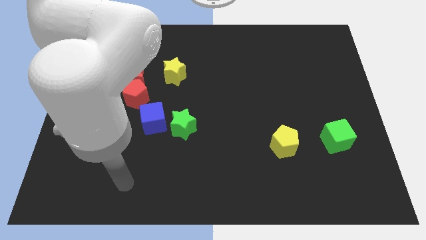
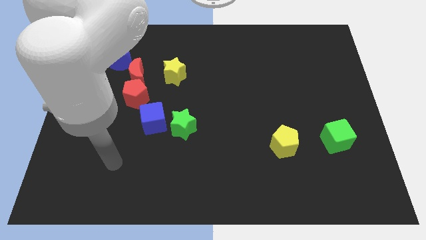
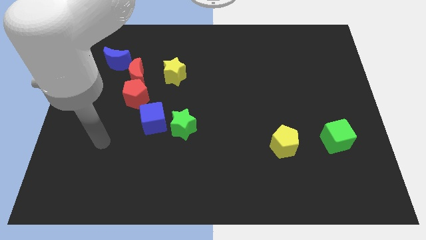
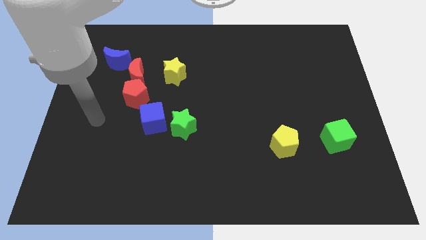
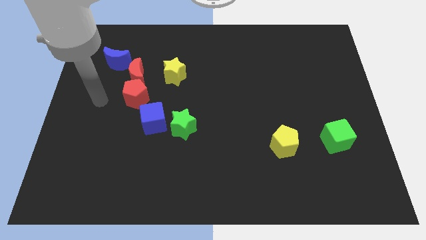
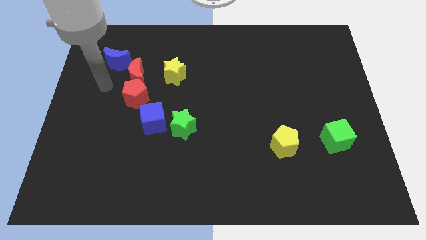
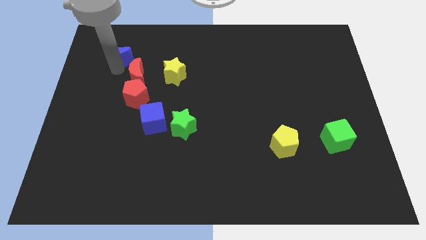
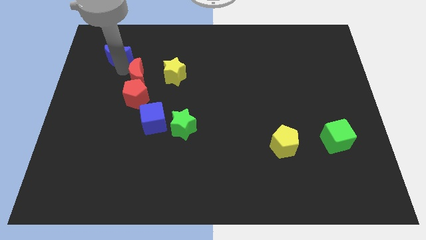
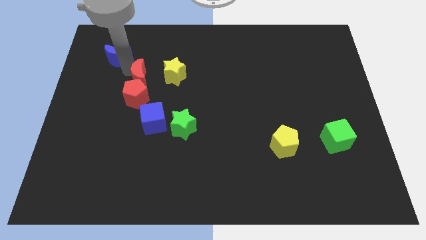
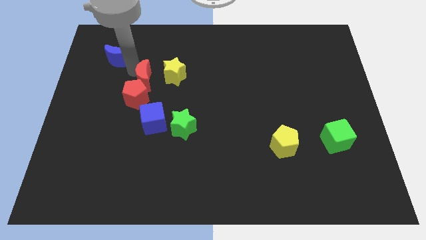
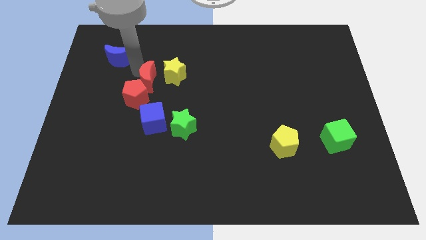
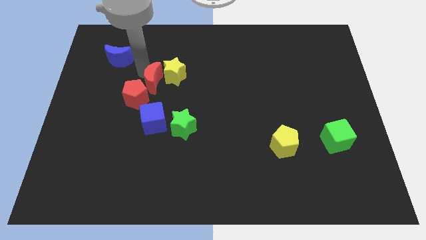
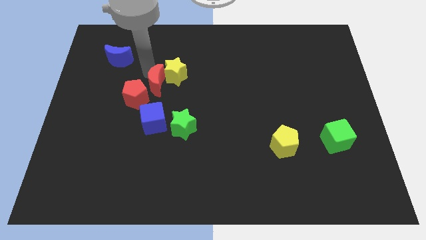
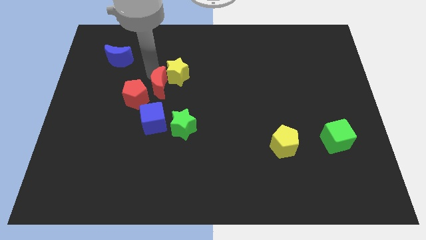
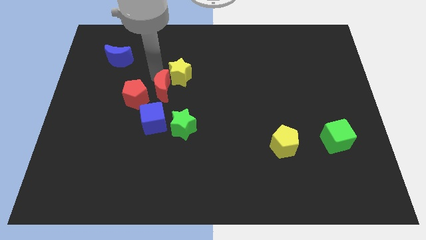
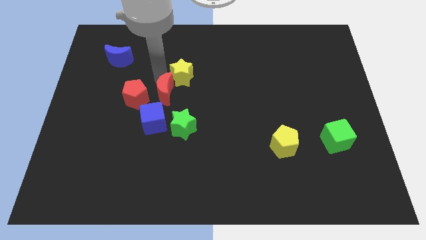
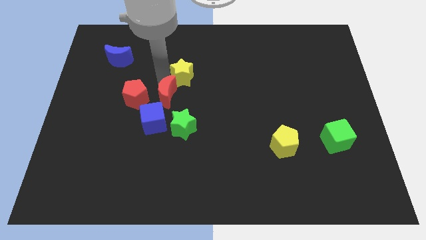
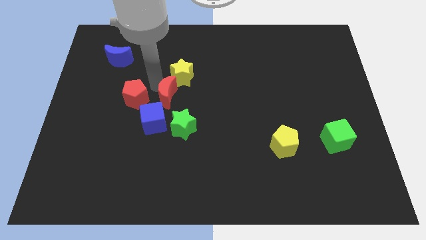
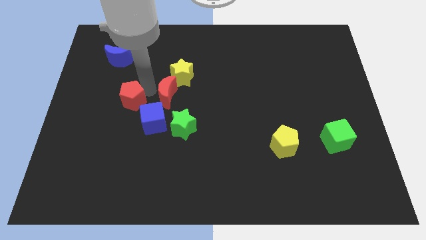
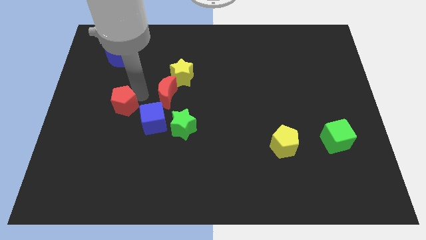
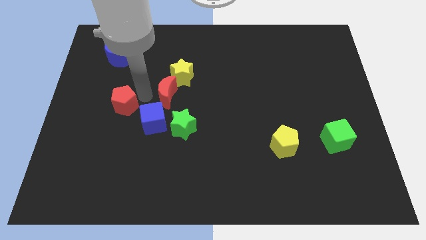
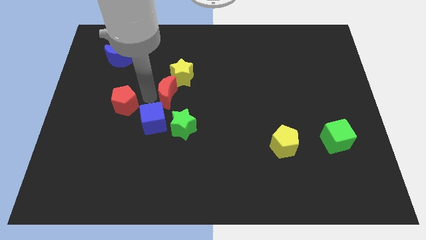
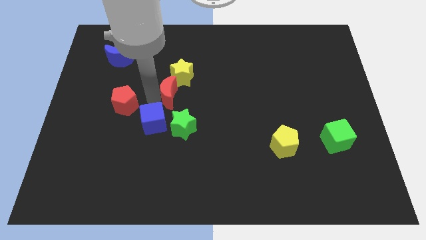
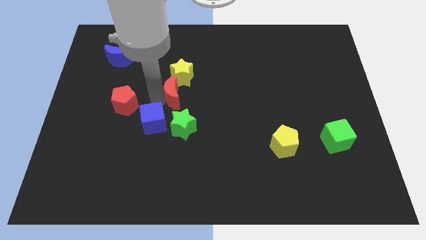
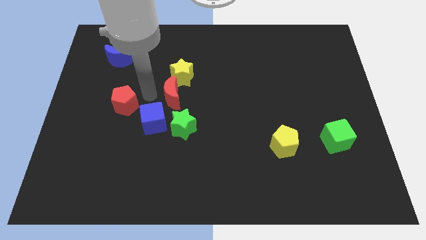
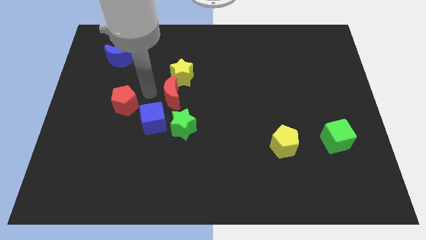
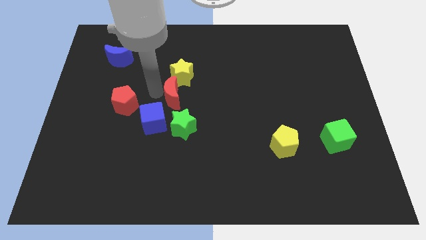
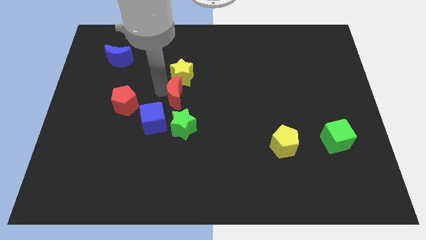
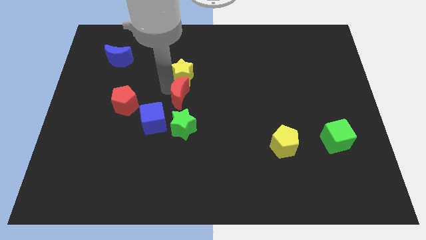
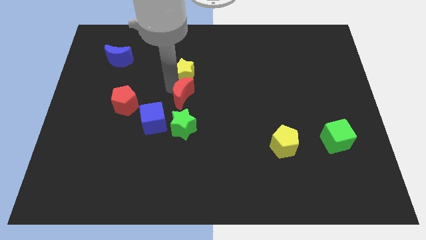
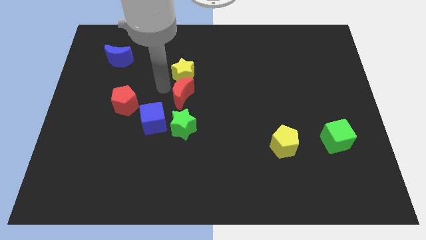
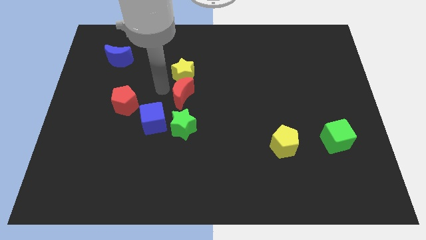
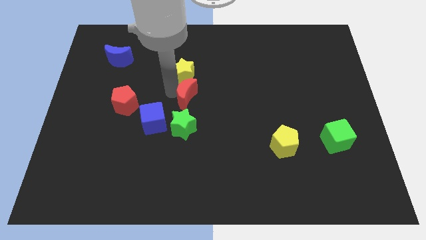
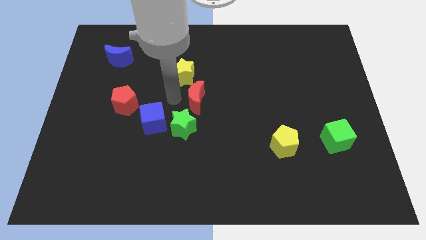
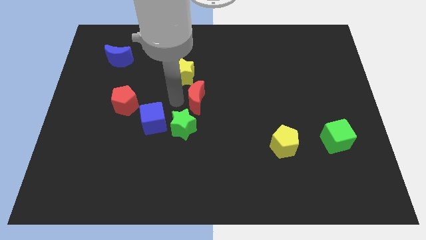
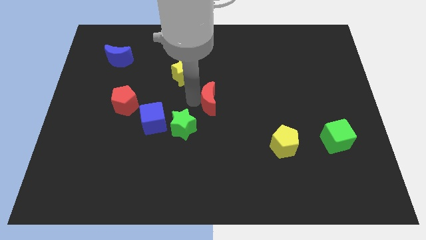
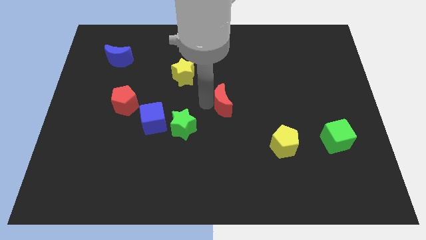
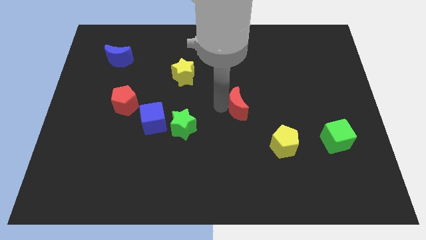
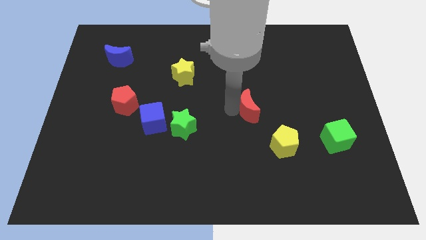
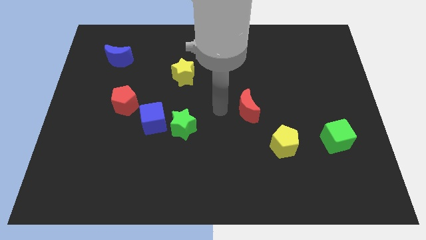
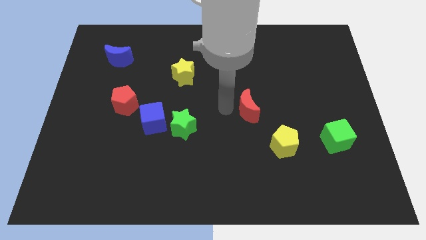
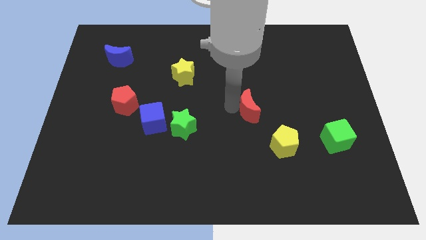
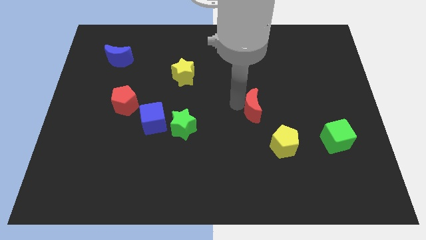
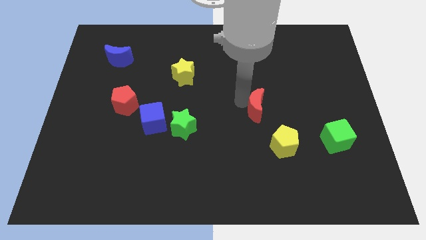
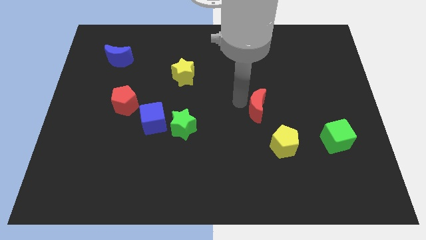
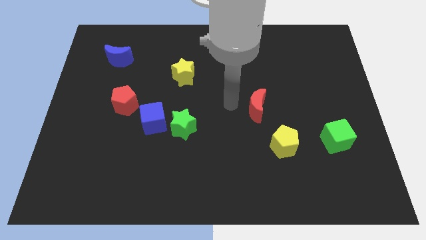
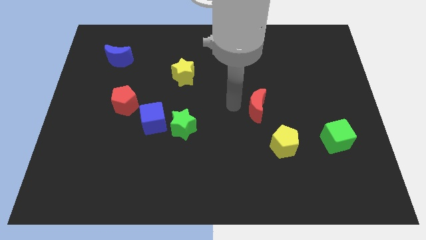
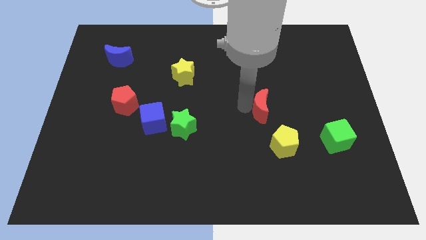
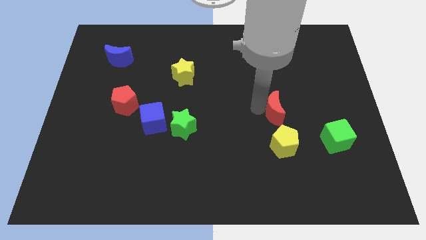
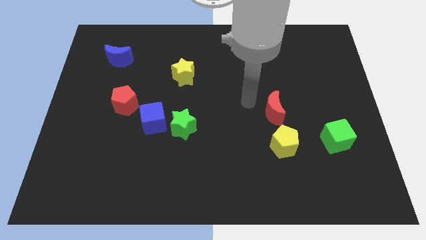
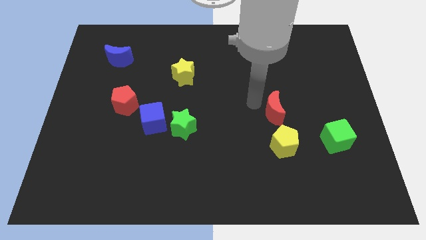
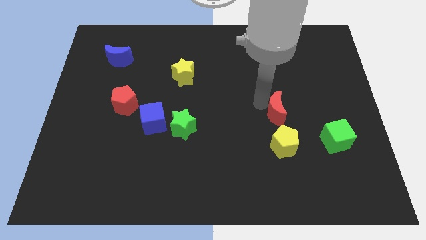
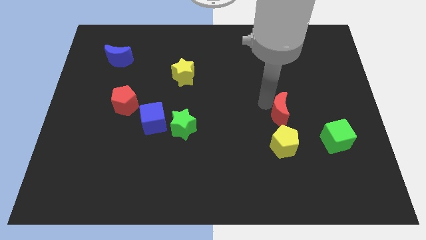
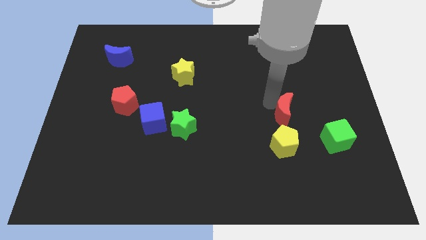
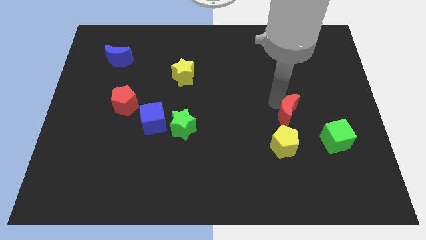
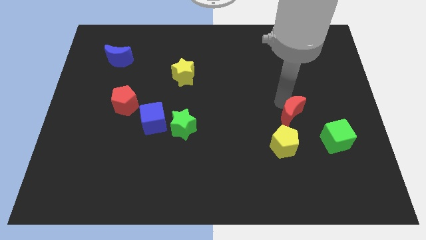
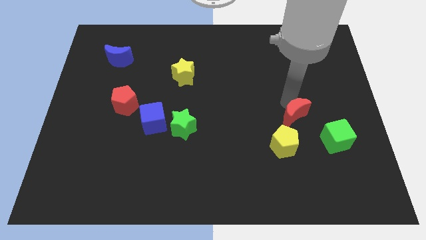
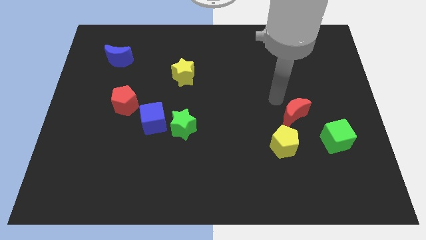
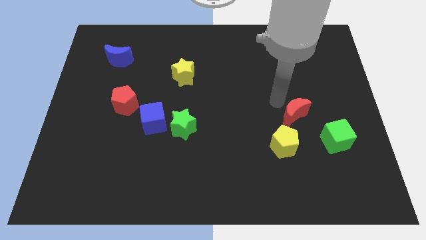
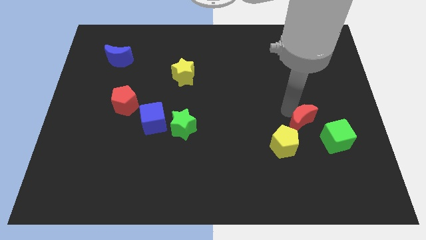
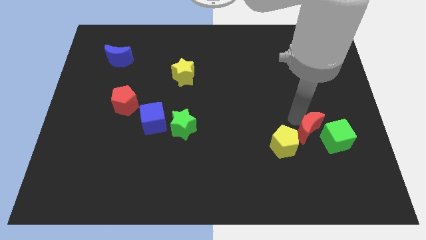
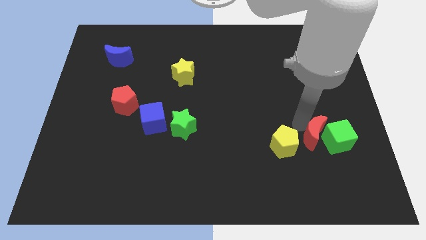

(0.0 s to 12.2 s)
put the red moon towards the green cube

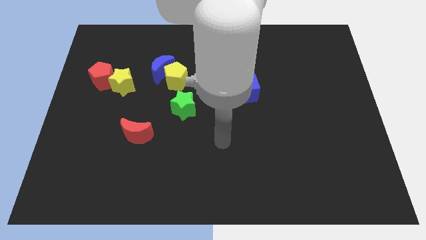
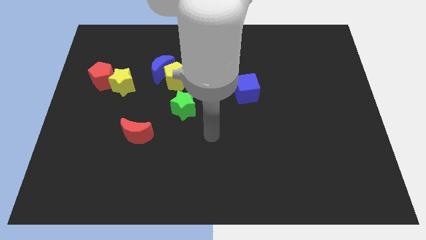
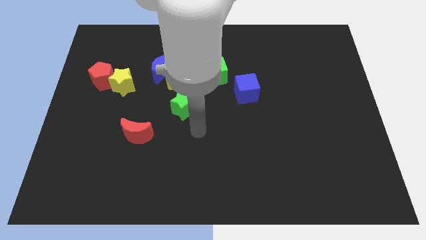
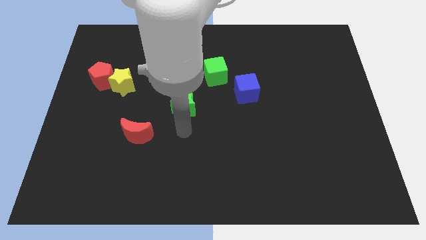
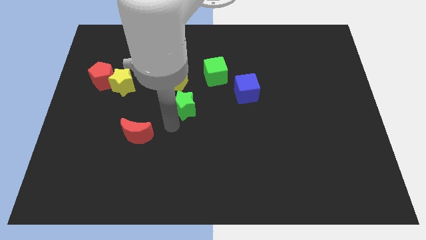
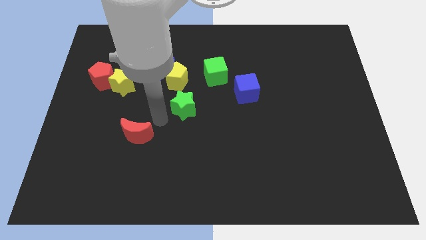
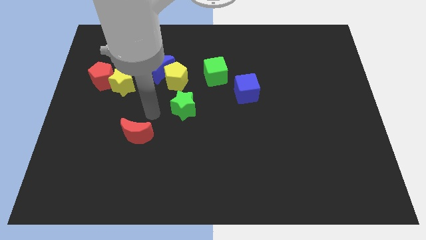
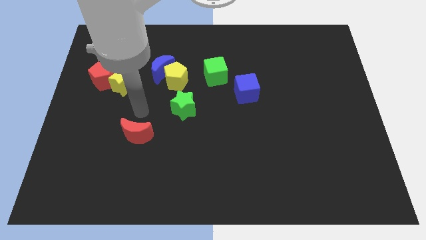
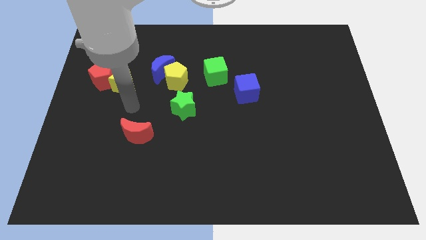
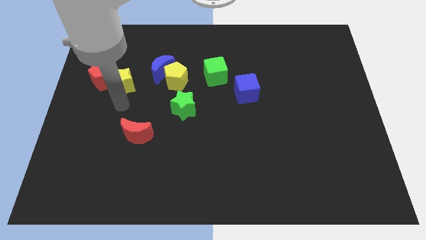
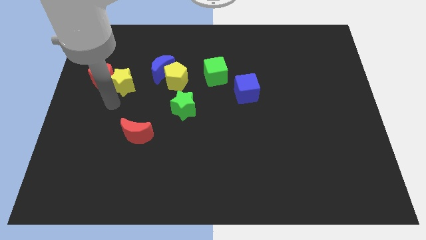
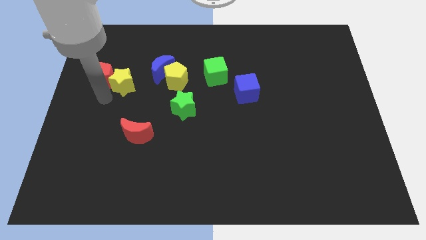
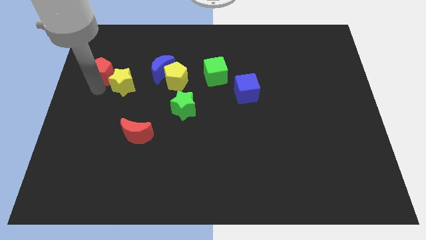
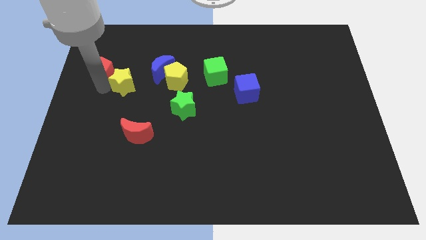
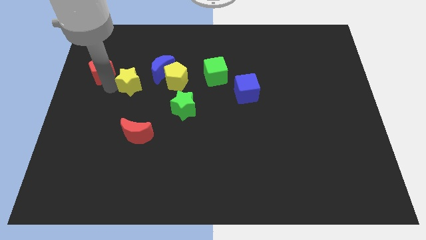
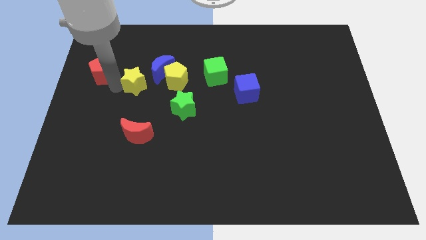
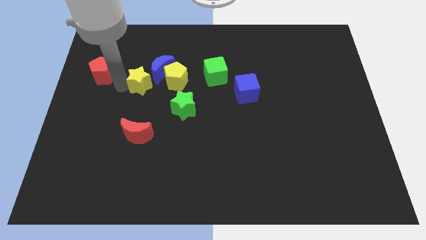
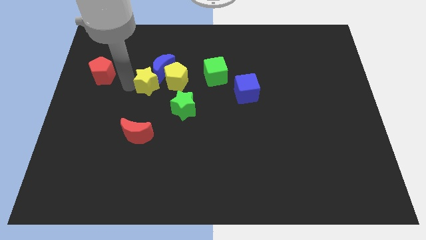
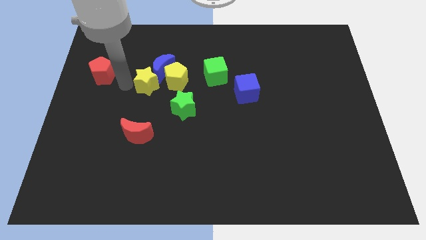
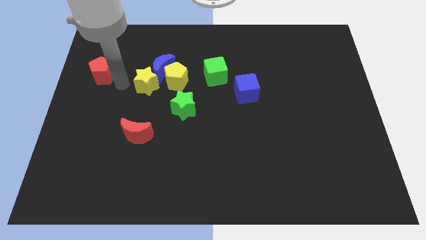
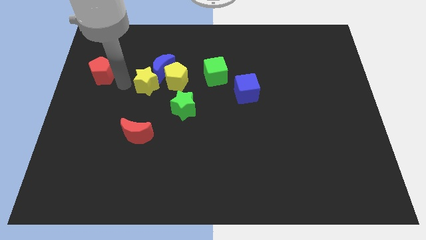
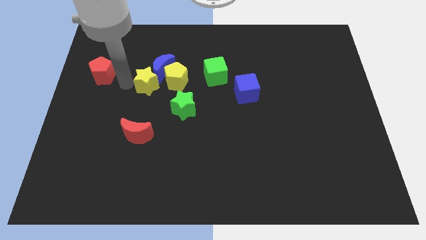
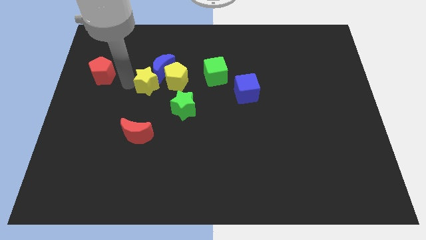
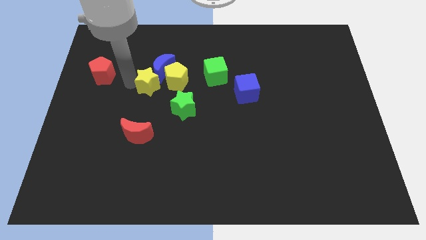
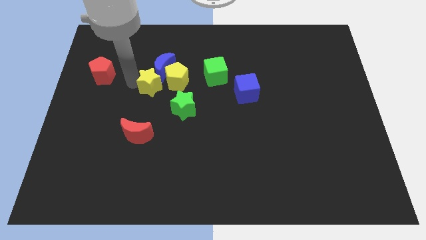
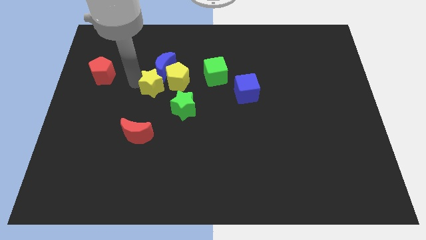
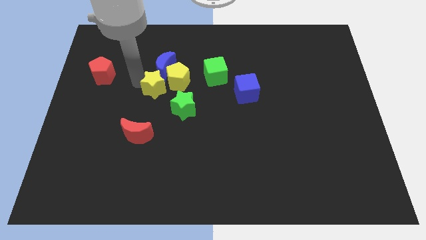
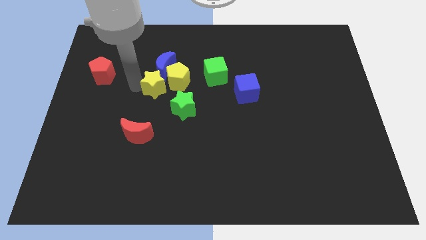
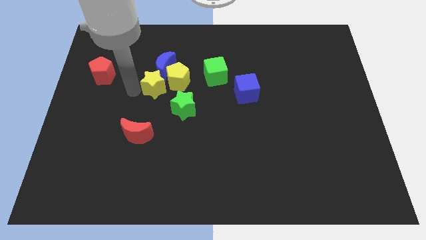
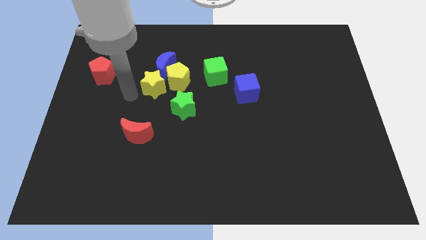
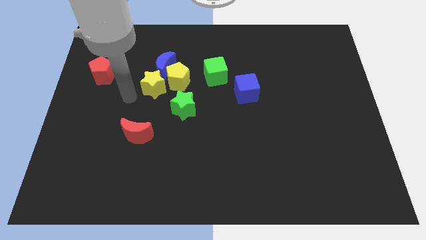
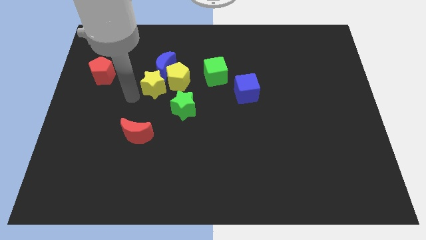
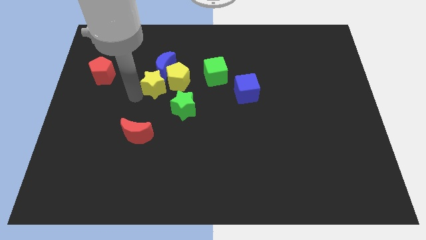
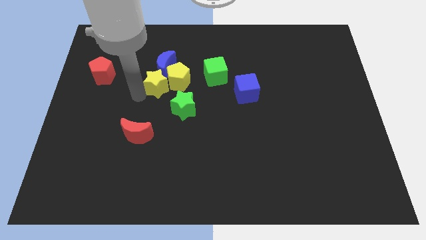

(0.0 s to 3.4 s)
push the yellow star close to the yellow pentagon
